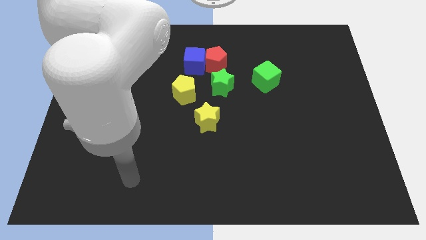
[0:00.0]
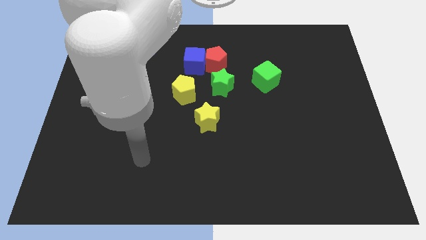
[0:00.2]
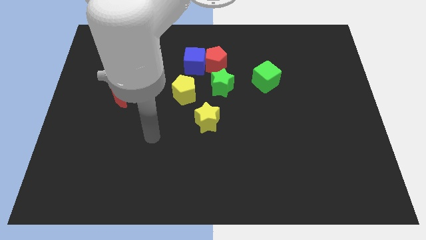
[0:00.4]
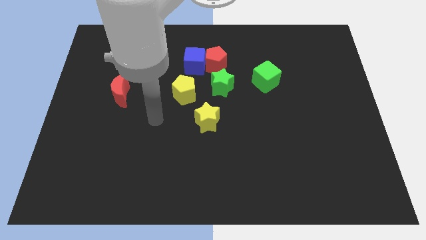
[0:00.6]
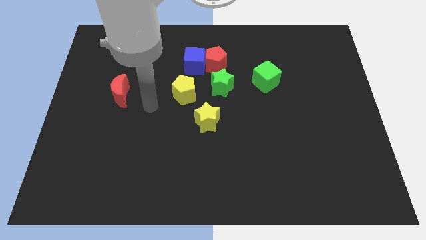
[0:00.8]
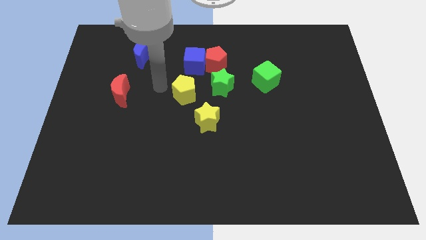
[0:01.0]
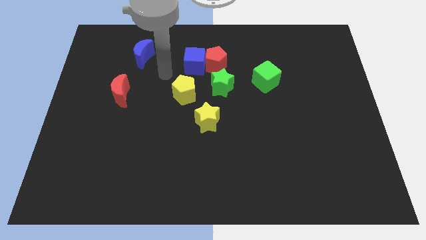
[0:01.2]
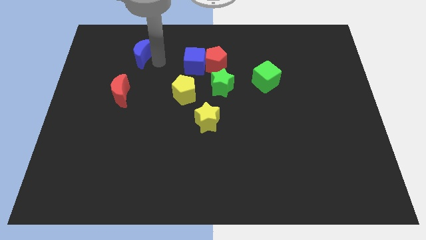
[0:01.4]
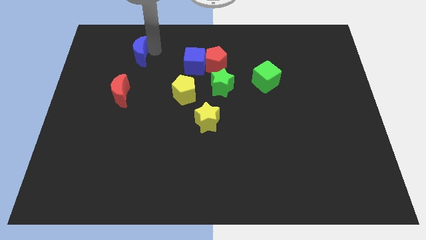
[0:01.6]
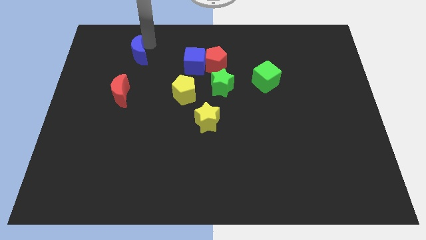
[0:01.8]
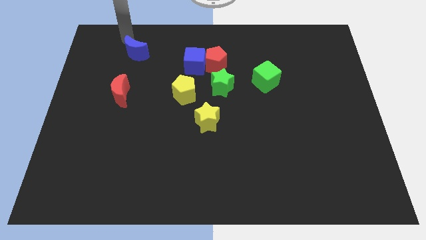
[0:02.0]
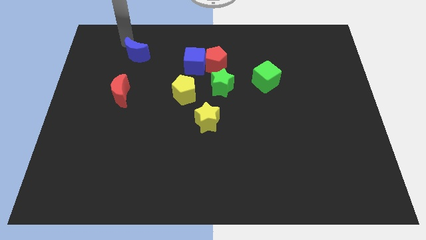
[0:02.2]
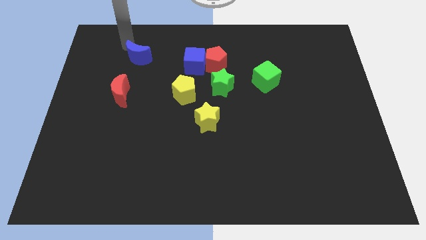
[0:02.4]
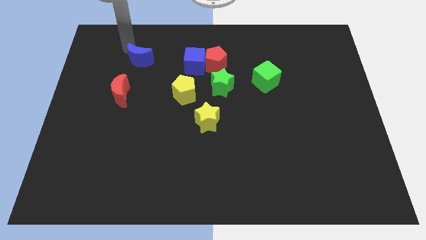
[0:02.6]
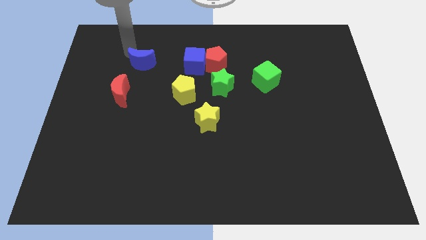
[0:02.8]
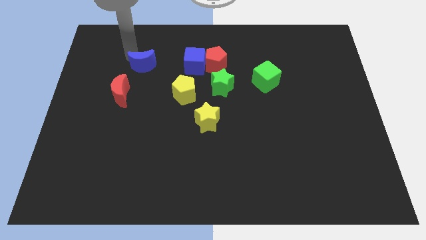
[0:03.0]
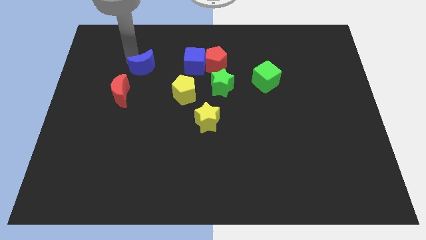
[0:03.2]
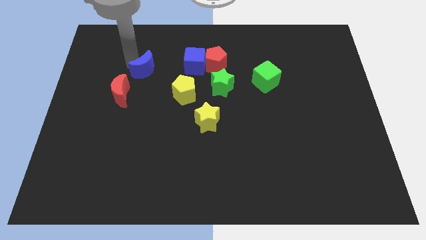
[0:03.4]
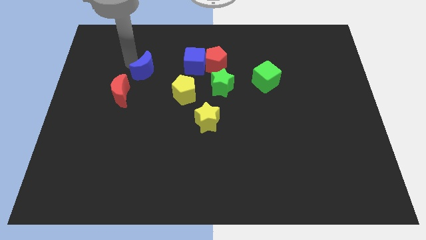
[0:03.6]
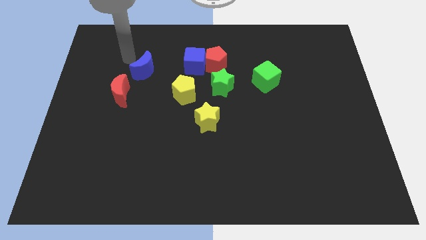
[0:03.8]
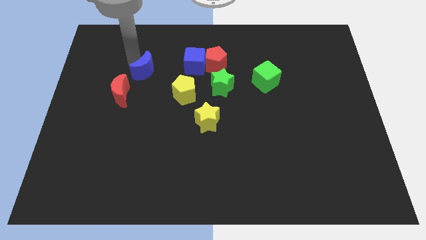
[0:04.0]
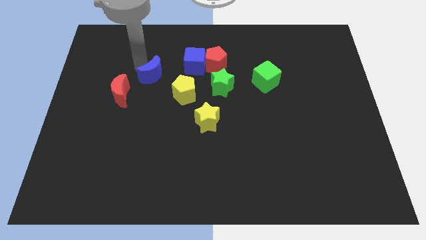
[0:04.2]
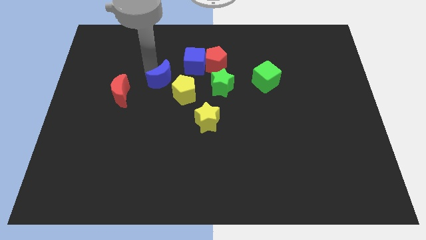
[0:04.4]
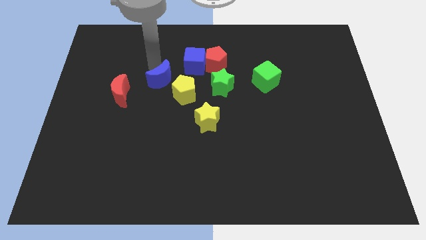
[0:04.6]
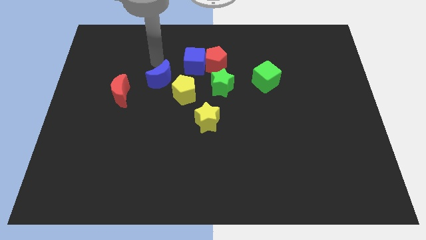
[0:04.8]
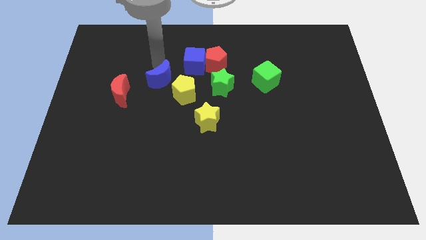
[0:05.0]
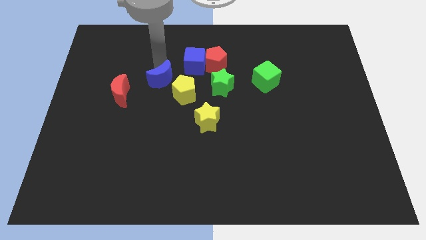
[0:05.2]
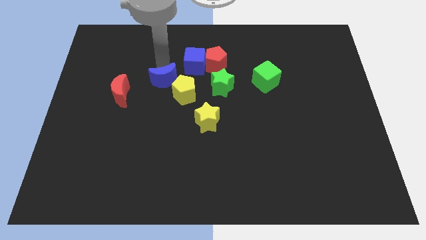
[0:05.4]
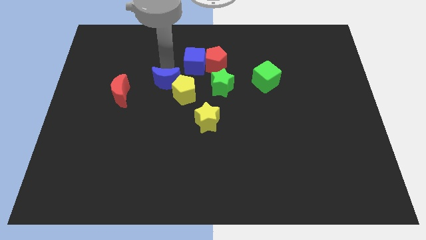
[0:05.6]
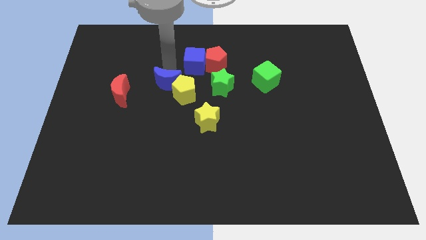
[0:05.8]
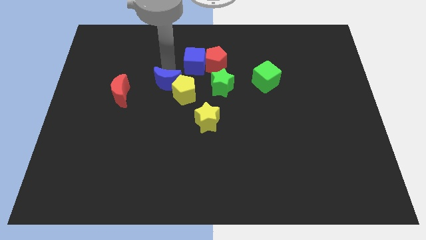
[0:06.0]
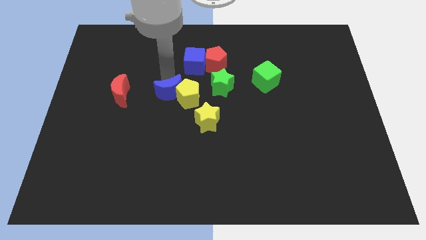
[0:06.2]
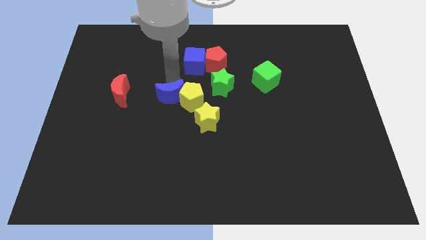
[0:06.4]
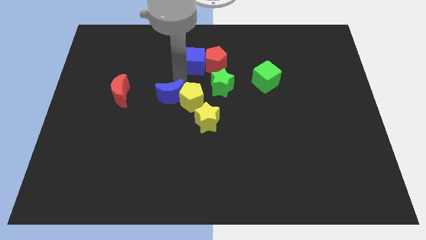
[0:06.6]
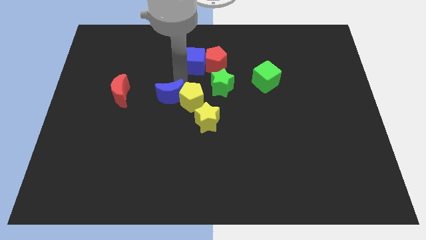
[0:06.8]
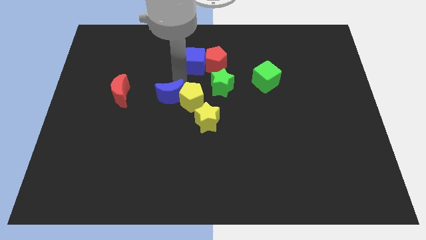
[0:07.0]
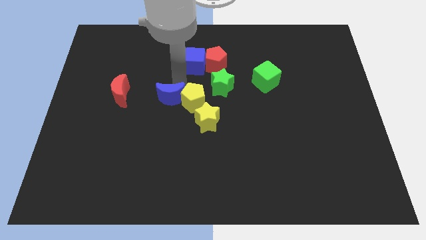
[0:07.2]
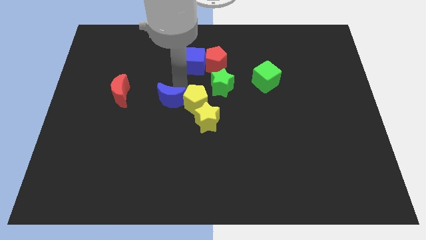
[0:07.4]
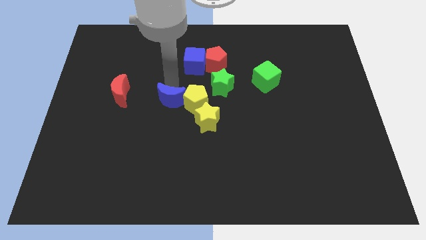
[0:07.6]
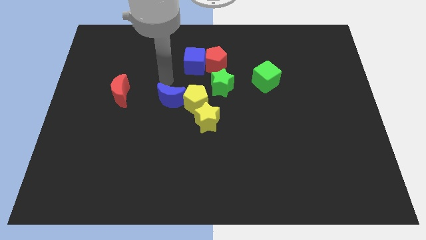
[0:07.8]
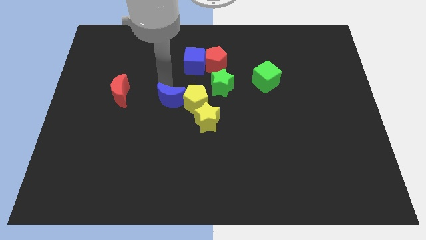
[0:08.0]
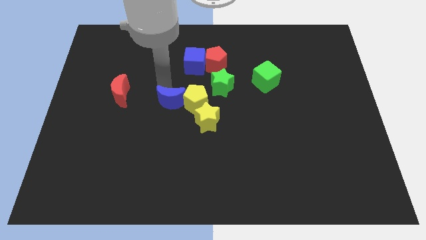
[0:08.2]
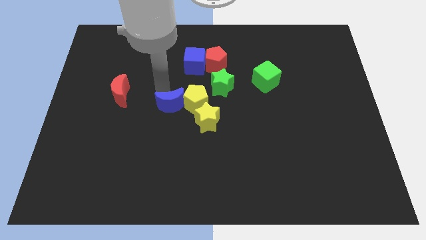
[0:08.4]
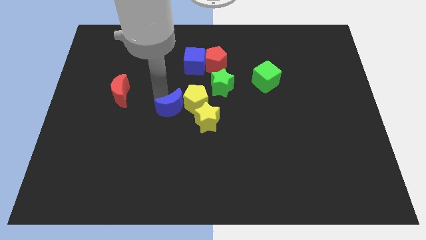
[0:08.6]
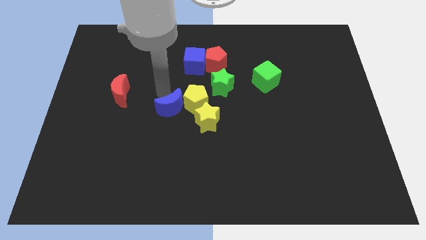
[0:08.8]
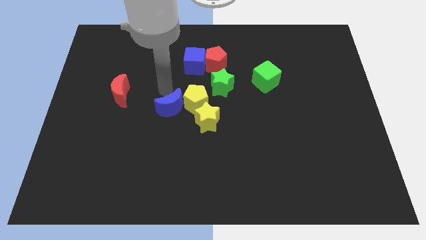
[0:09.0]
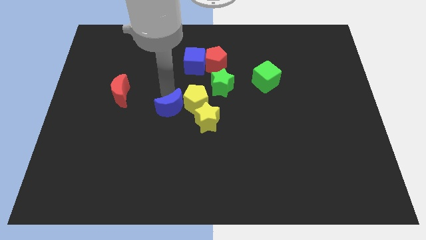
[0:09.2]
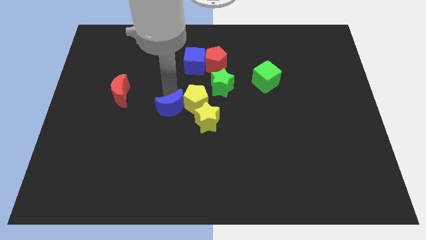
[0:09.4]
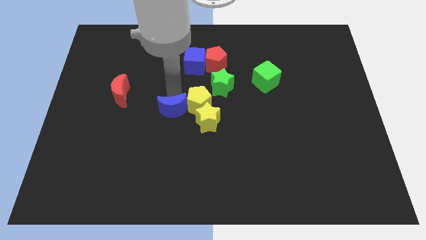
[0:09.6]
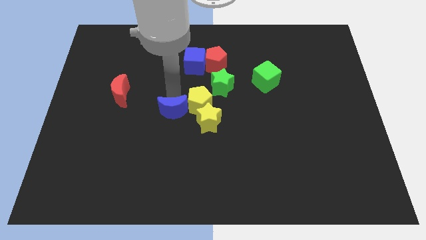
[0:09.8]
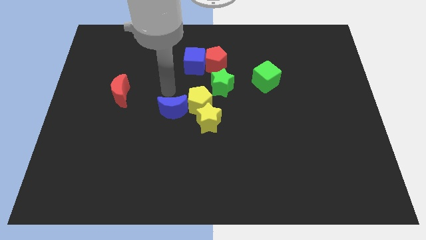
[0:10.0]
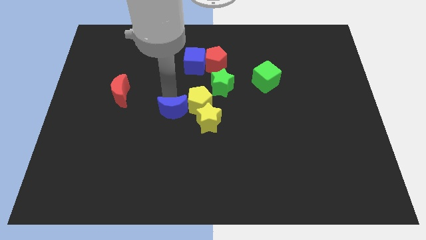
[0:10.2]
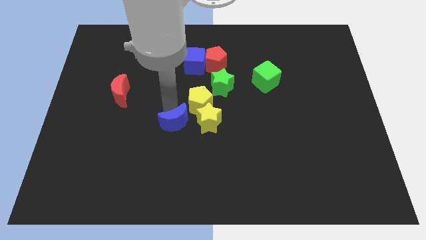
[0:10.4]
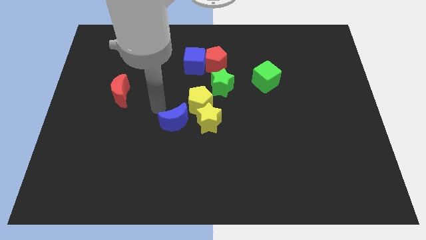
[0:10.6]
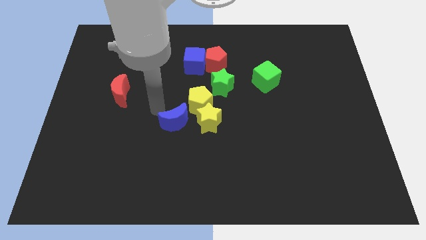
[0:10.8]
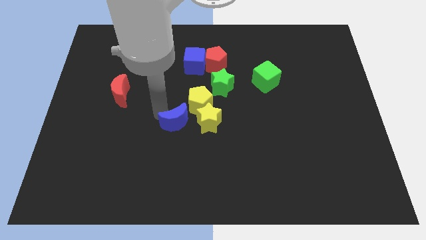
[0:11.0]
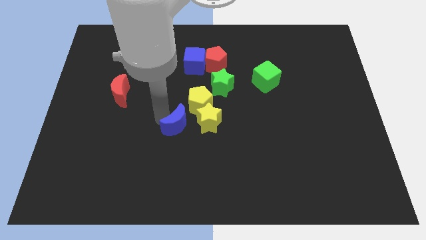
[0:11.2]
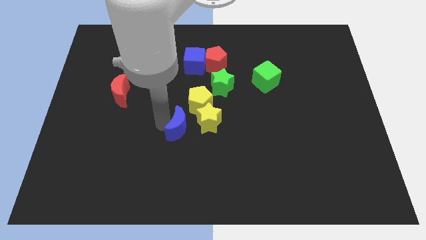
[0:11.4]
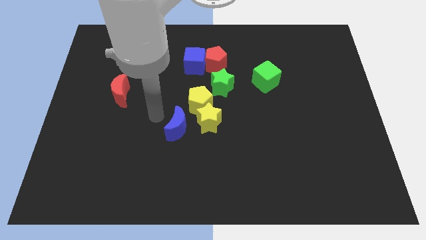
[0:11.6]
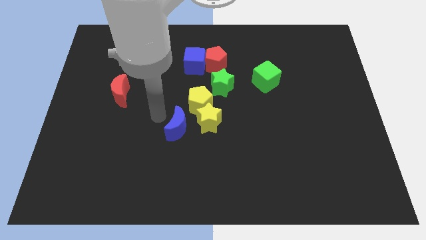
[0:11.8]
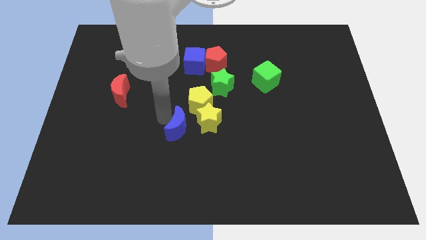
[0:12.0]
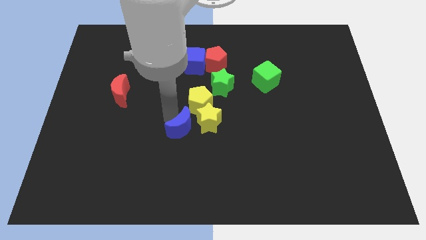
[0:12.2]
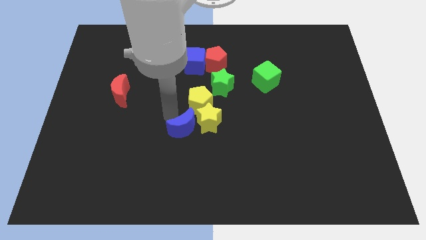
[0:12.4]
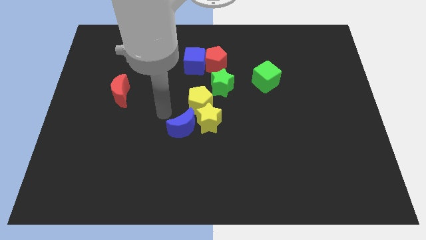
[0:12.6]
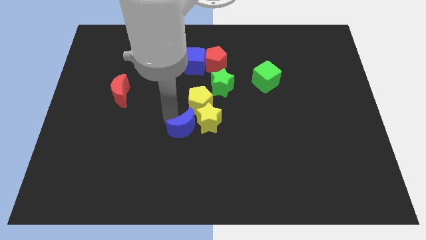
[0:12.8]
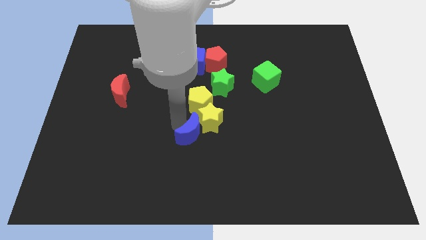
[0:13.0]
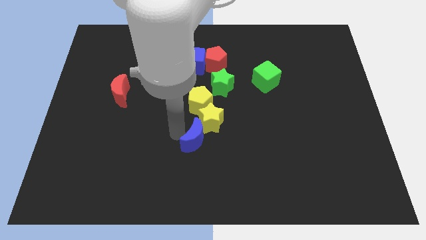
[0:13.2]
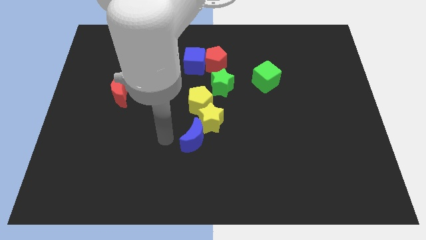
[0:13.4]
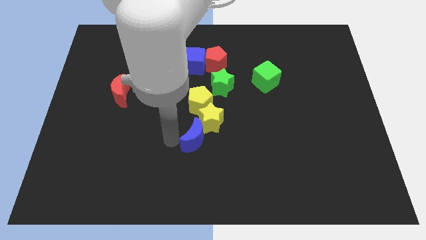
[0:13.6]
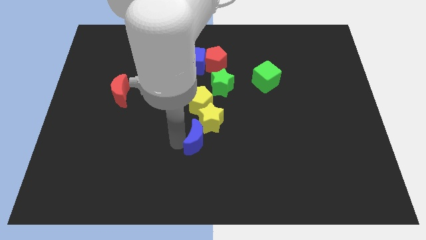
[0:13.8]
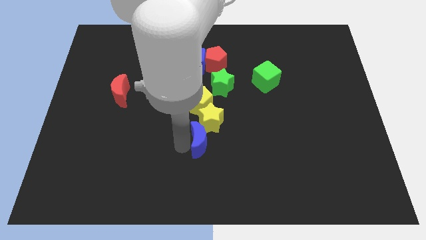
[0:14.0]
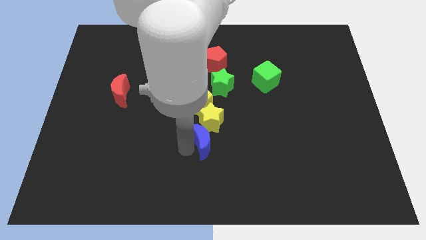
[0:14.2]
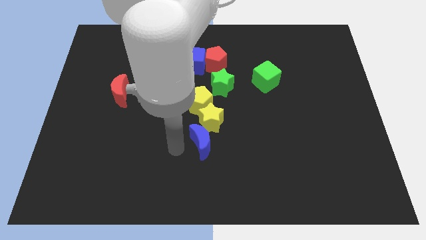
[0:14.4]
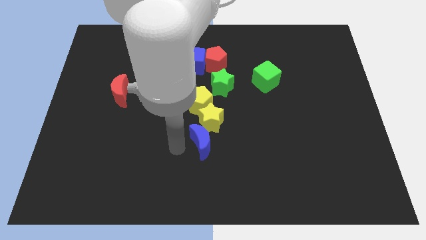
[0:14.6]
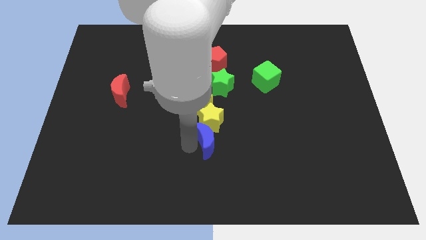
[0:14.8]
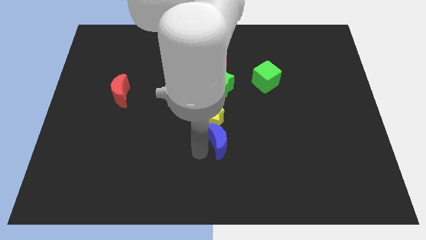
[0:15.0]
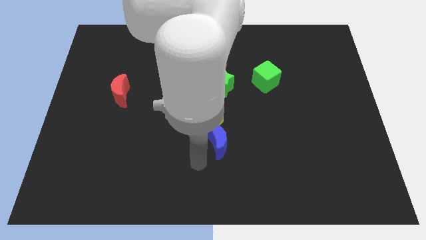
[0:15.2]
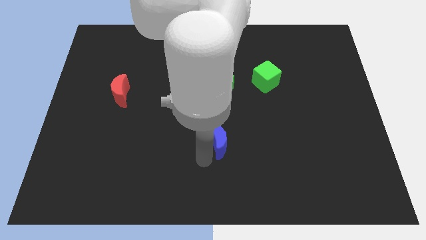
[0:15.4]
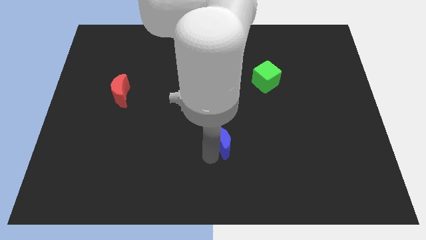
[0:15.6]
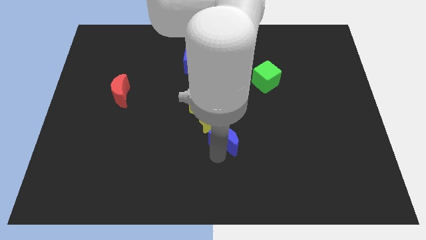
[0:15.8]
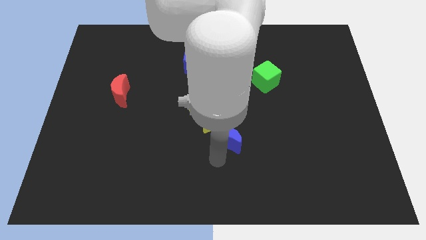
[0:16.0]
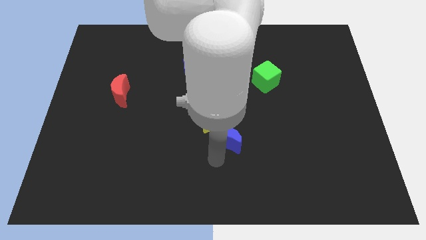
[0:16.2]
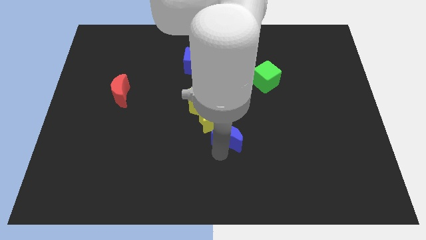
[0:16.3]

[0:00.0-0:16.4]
put the blue moon to the right side of the yellow star
